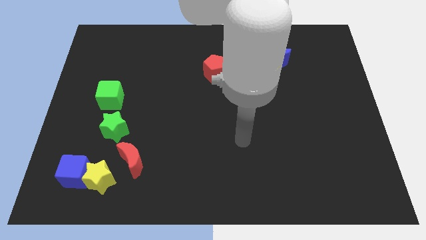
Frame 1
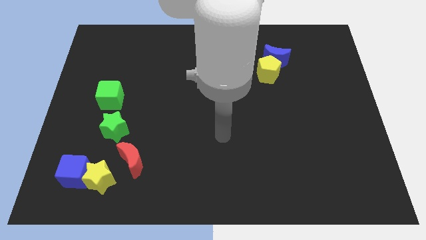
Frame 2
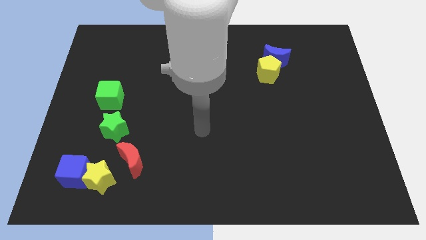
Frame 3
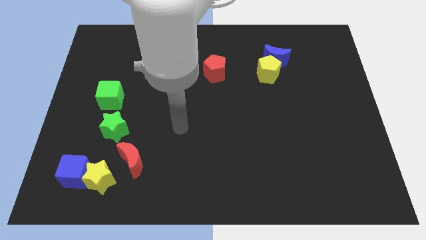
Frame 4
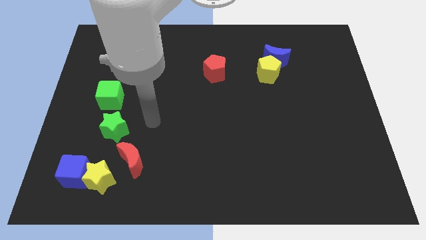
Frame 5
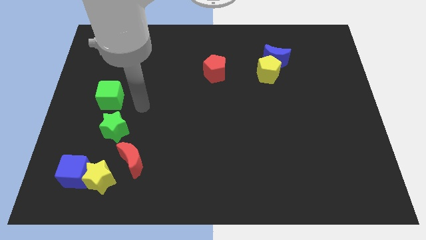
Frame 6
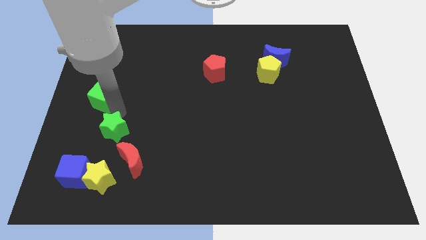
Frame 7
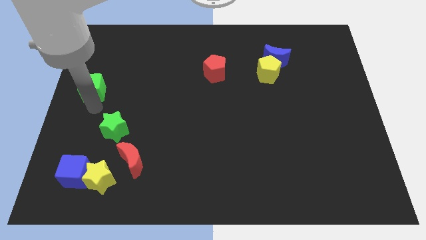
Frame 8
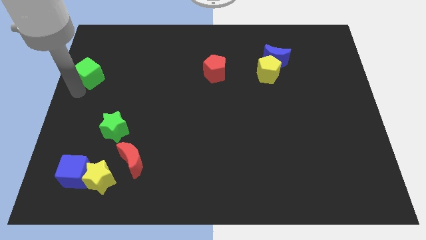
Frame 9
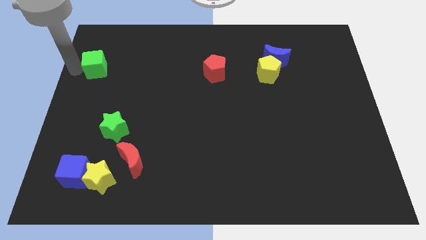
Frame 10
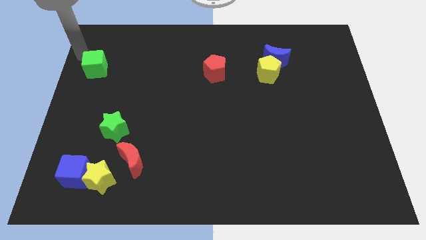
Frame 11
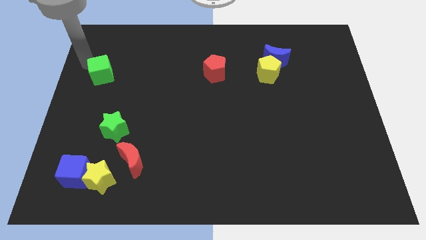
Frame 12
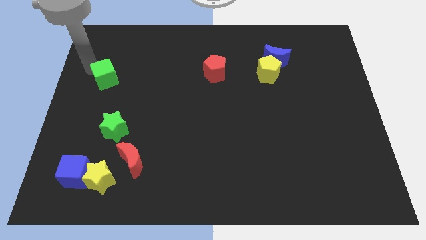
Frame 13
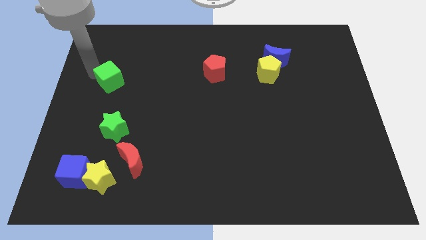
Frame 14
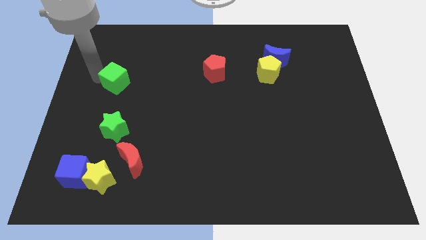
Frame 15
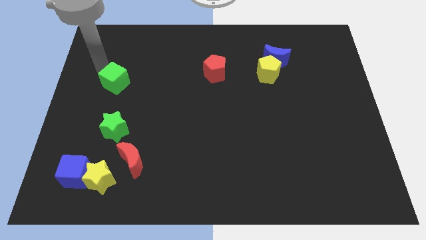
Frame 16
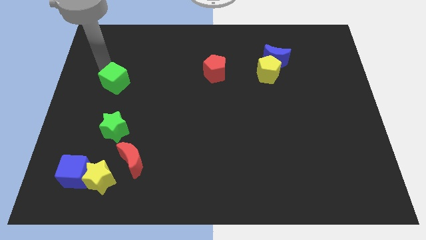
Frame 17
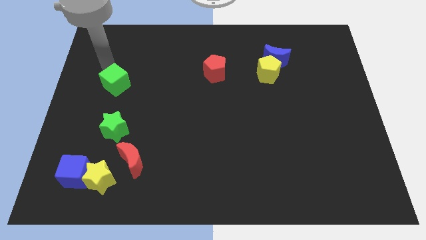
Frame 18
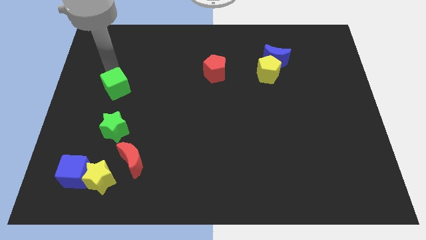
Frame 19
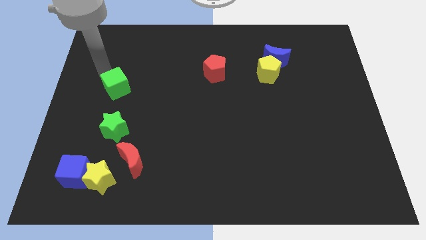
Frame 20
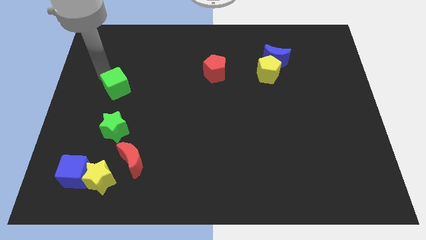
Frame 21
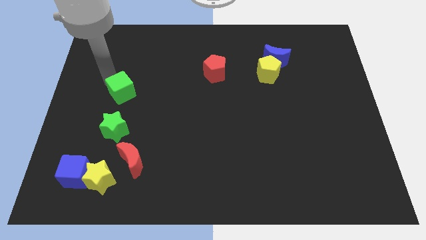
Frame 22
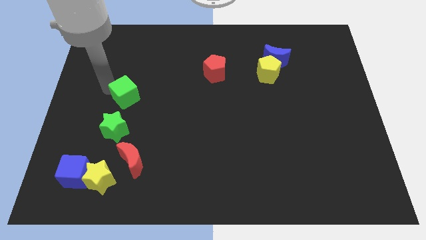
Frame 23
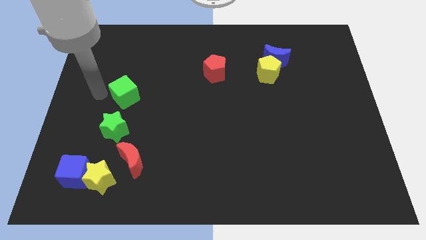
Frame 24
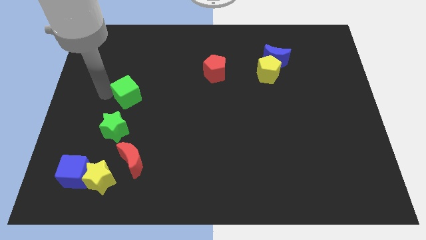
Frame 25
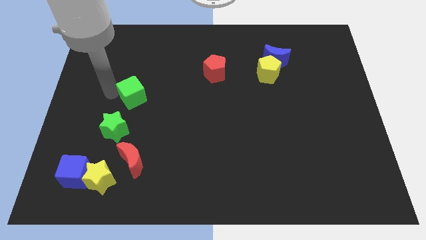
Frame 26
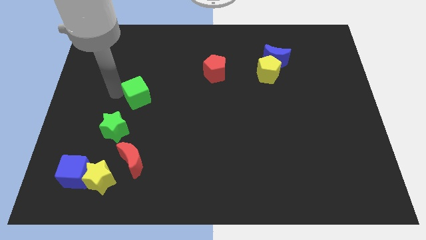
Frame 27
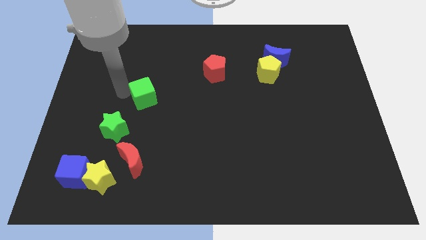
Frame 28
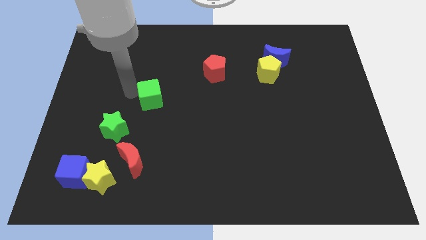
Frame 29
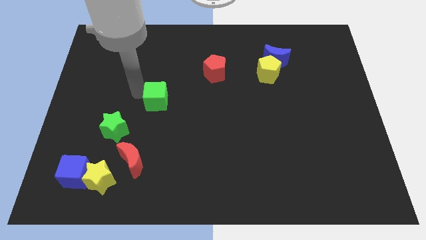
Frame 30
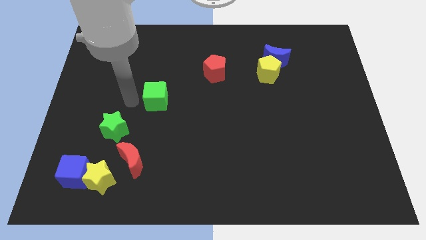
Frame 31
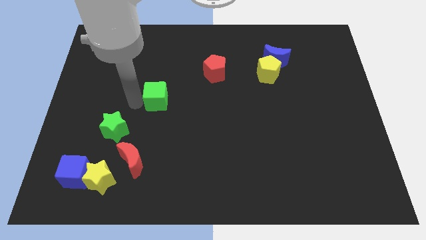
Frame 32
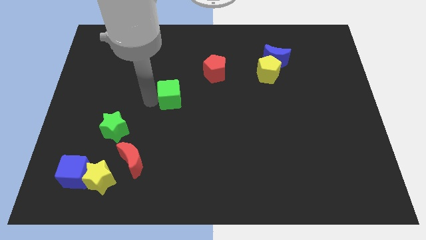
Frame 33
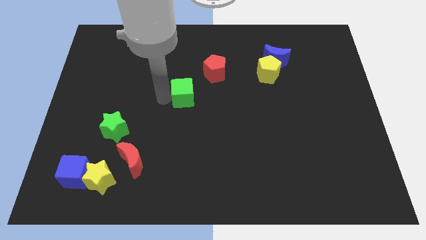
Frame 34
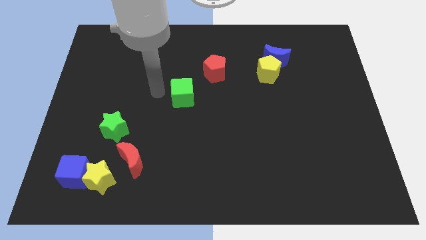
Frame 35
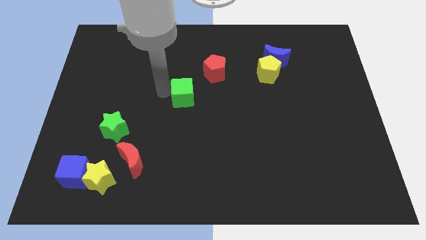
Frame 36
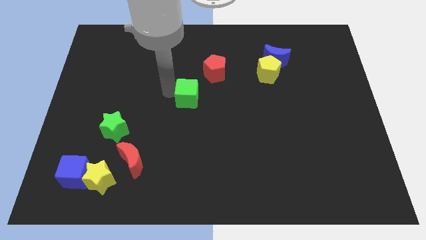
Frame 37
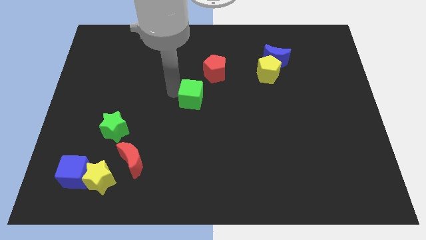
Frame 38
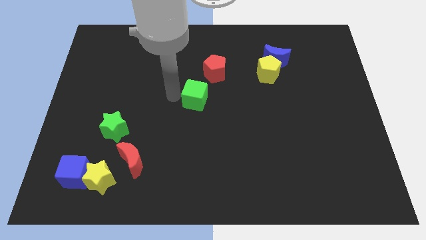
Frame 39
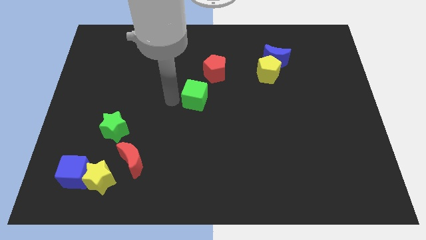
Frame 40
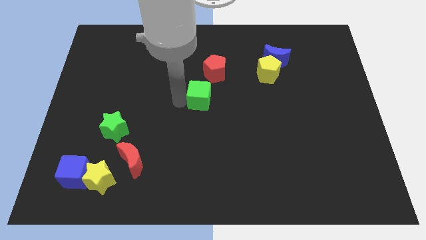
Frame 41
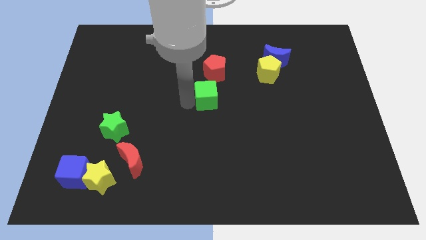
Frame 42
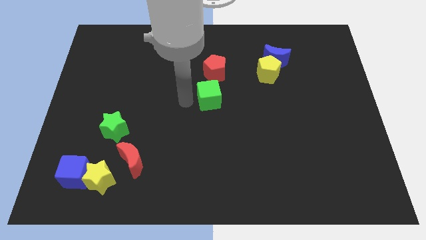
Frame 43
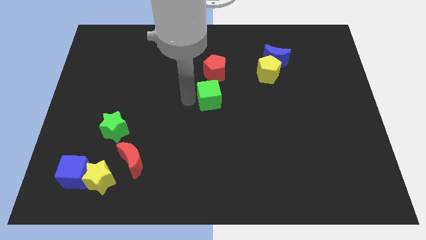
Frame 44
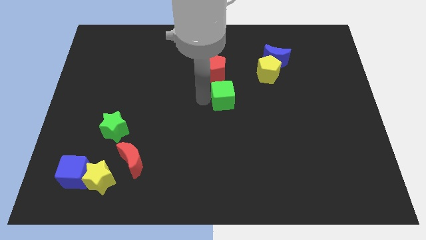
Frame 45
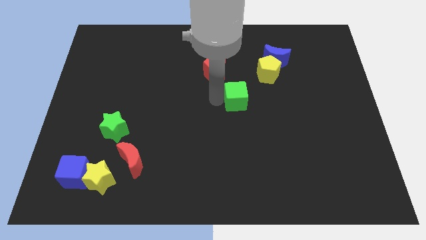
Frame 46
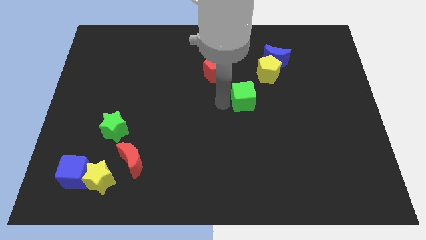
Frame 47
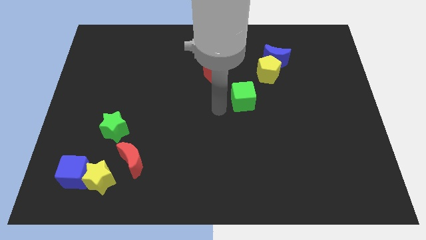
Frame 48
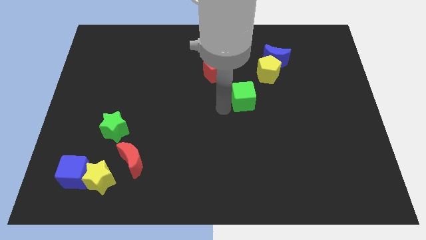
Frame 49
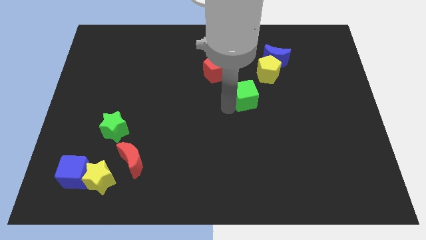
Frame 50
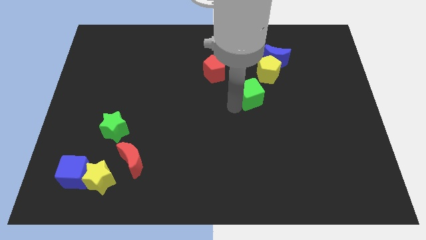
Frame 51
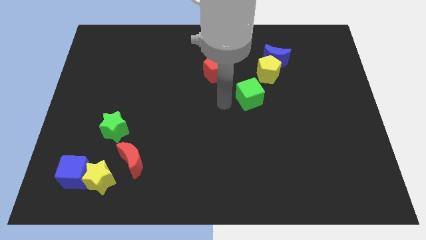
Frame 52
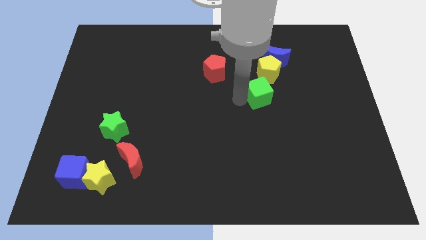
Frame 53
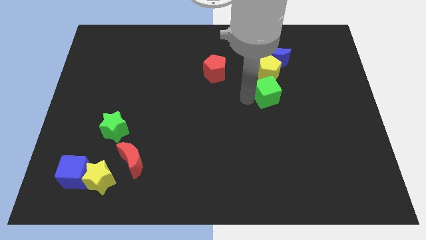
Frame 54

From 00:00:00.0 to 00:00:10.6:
put the green cube to the bottom side of the blue moon

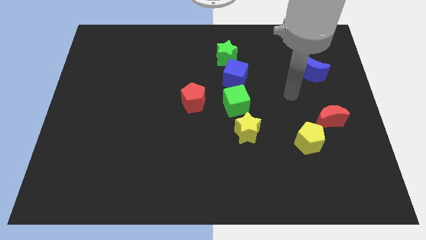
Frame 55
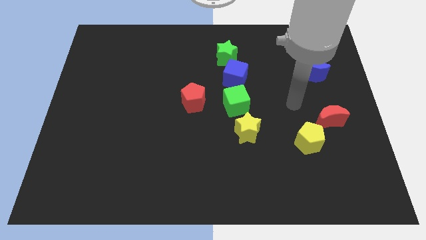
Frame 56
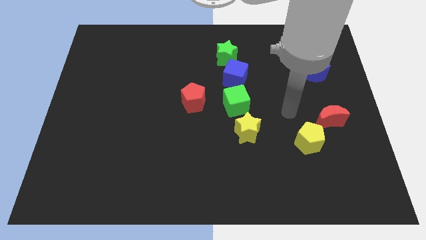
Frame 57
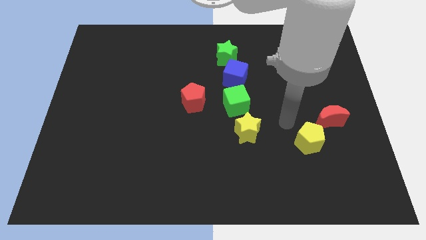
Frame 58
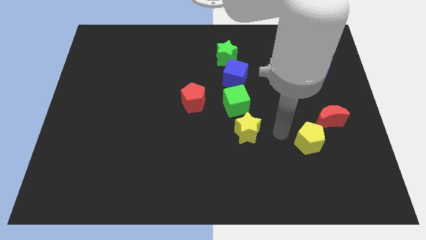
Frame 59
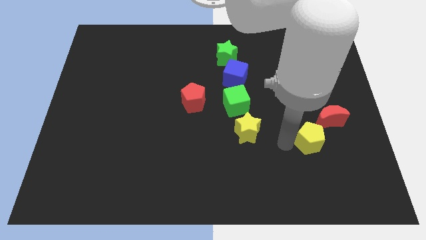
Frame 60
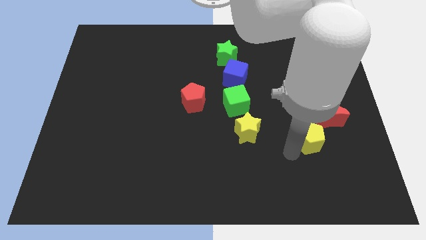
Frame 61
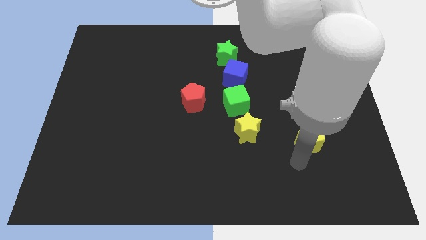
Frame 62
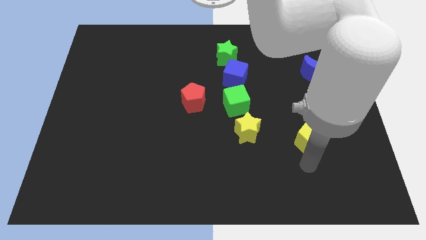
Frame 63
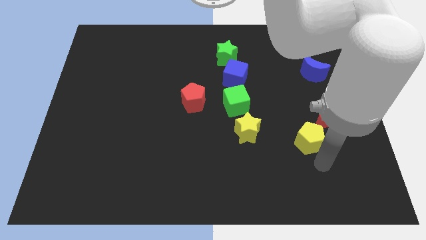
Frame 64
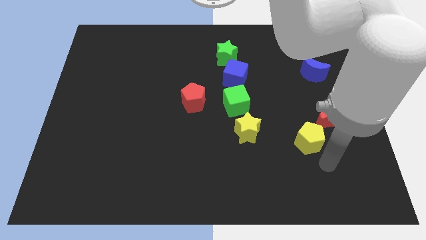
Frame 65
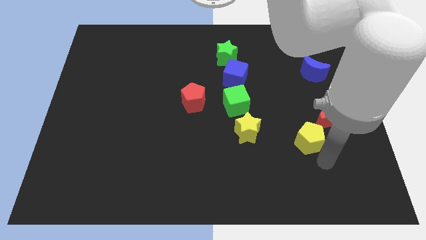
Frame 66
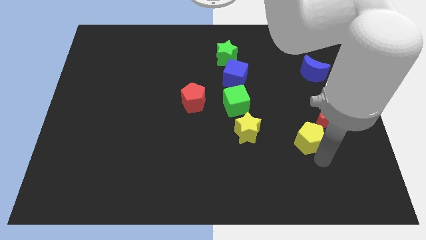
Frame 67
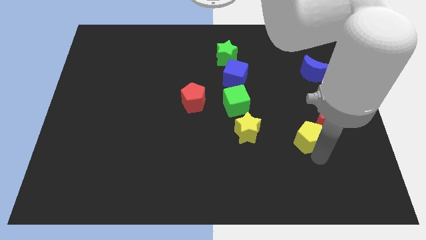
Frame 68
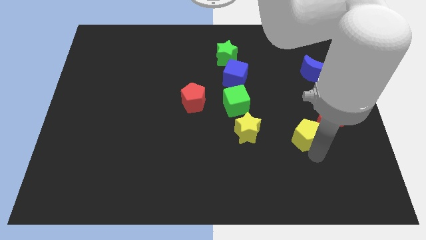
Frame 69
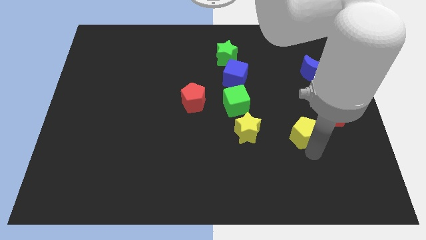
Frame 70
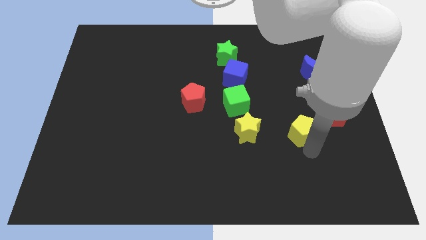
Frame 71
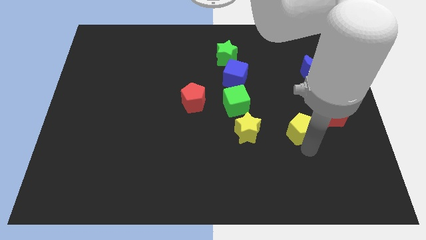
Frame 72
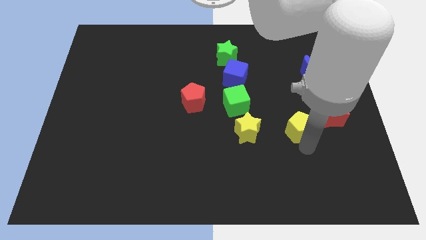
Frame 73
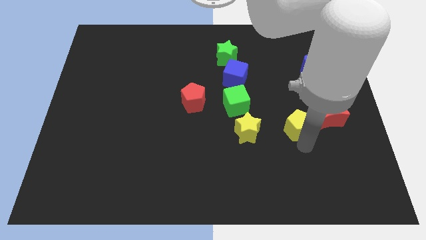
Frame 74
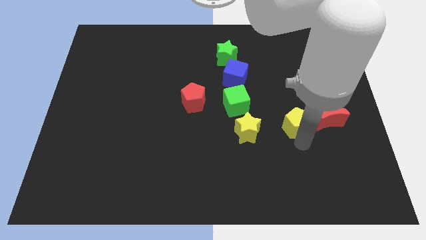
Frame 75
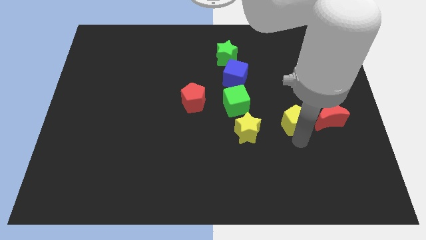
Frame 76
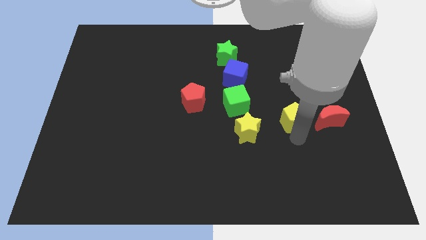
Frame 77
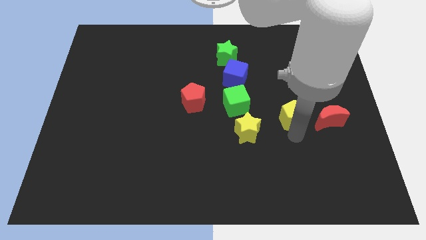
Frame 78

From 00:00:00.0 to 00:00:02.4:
move the yellow pentagon to the right side of the green cube
